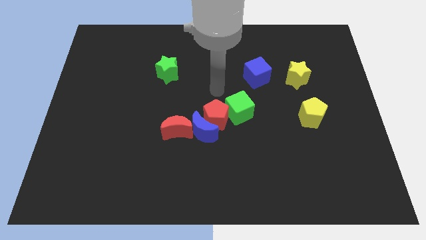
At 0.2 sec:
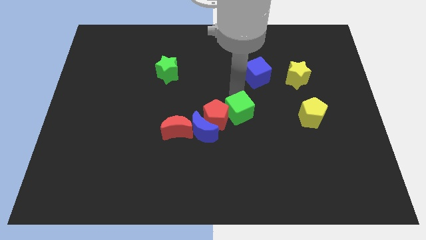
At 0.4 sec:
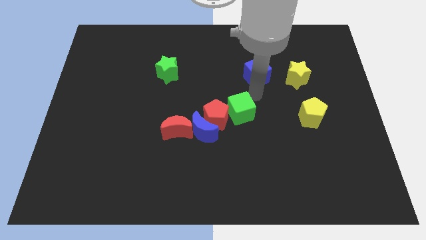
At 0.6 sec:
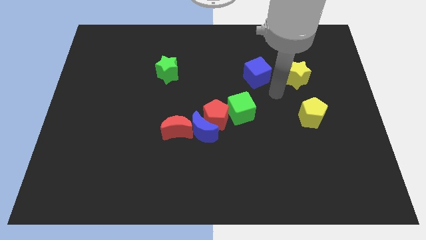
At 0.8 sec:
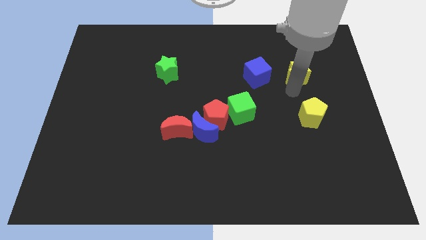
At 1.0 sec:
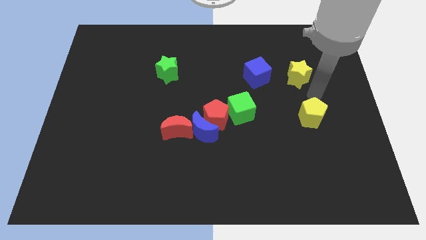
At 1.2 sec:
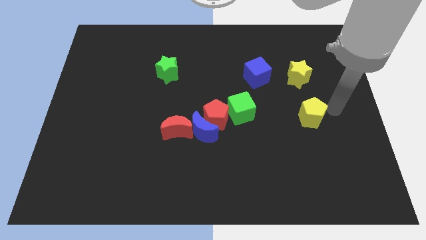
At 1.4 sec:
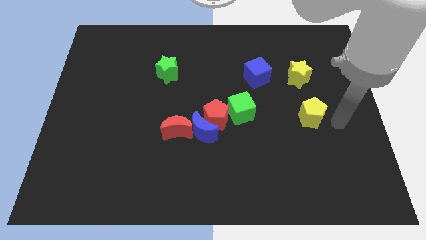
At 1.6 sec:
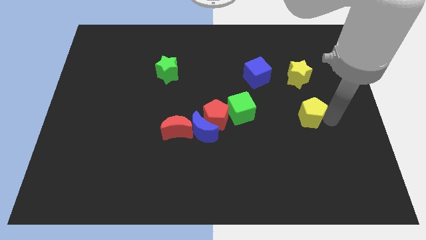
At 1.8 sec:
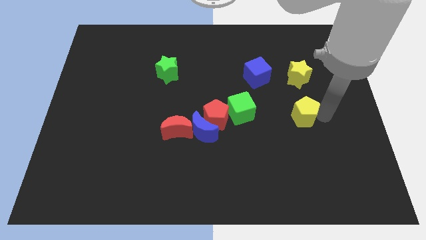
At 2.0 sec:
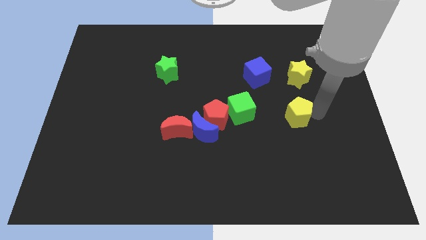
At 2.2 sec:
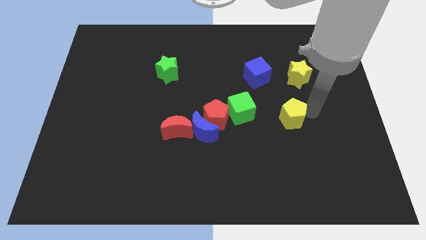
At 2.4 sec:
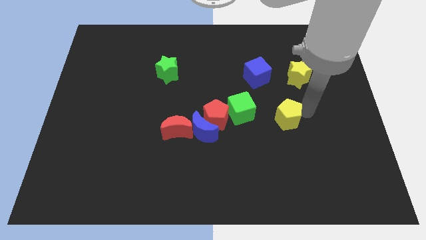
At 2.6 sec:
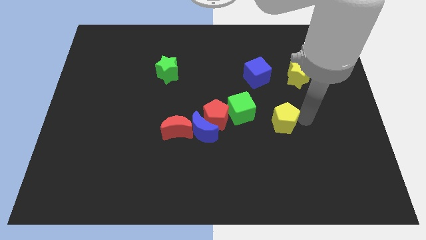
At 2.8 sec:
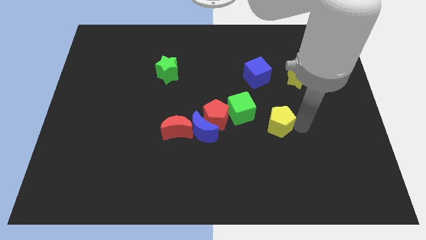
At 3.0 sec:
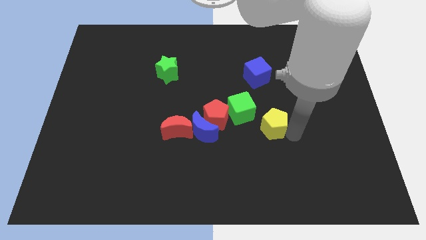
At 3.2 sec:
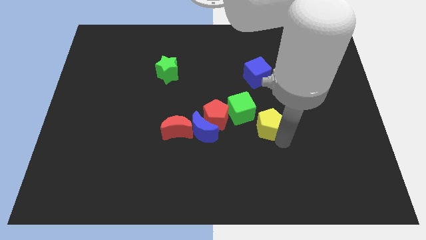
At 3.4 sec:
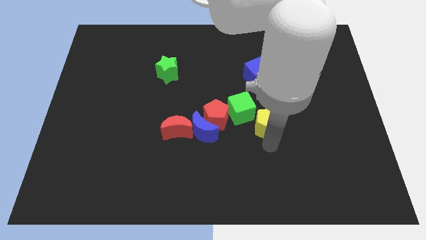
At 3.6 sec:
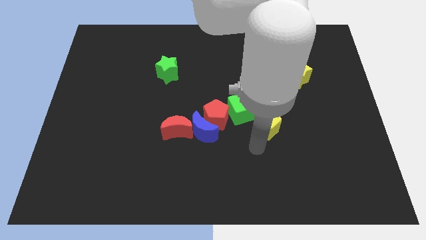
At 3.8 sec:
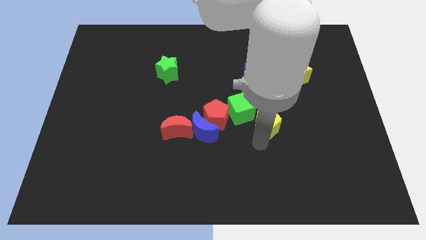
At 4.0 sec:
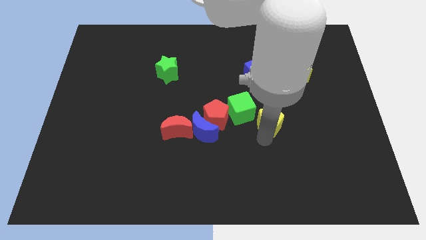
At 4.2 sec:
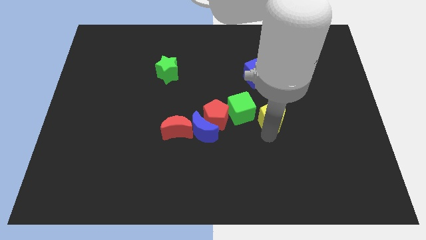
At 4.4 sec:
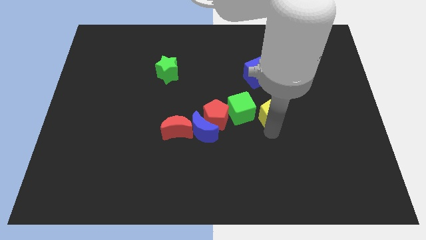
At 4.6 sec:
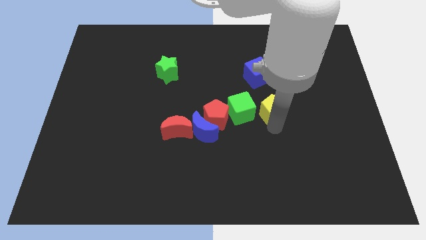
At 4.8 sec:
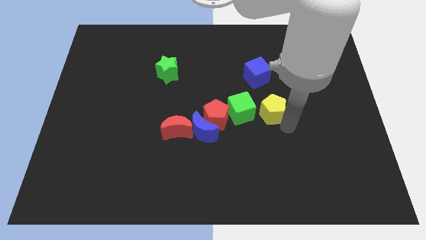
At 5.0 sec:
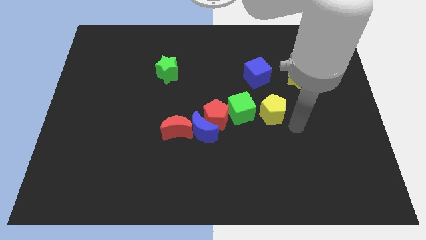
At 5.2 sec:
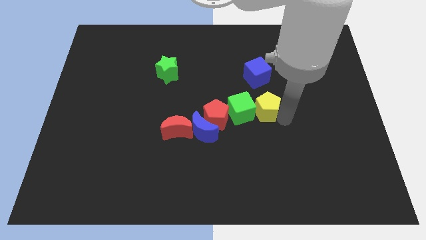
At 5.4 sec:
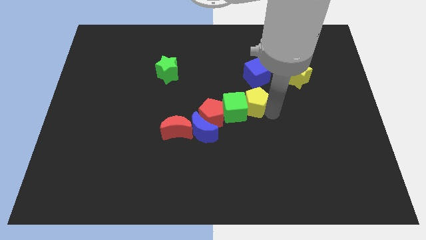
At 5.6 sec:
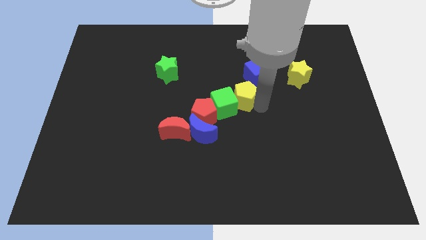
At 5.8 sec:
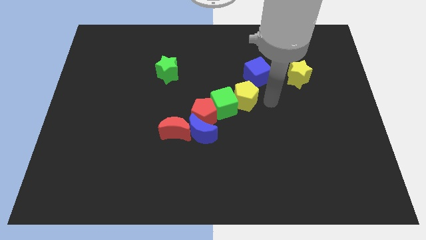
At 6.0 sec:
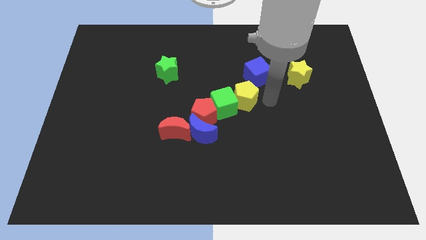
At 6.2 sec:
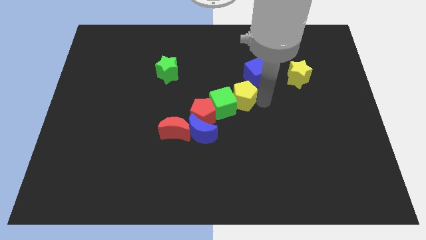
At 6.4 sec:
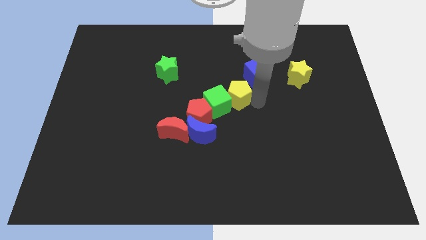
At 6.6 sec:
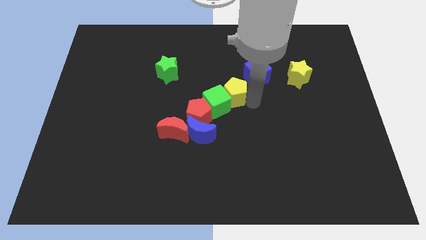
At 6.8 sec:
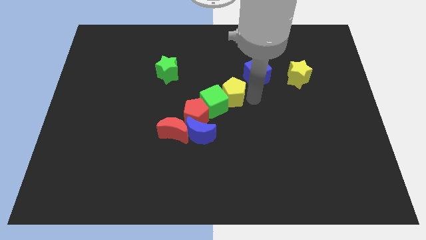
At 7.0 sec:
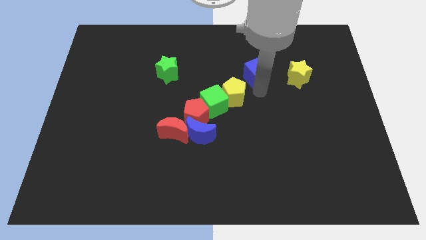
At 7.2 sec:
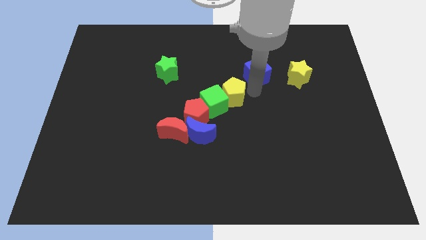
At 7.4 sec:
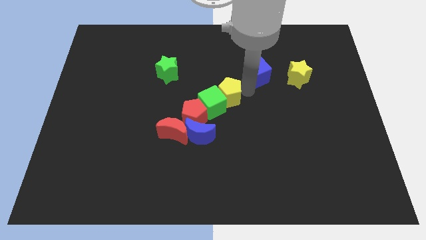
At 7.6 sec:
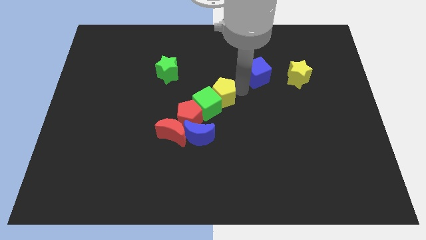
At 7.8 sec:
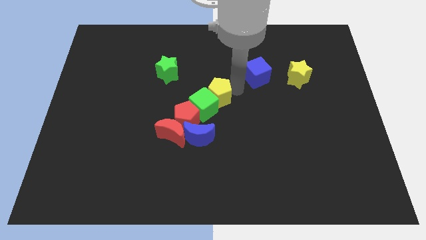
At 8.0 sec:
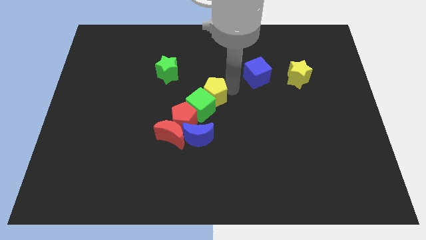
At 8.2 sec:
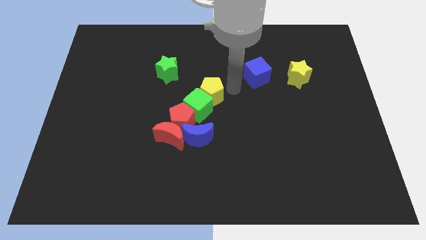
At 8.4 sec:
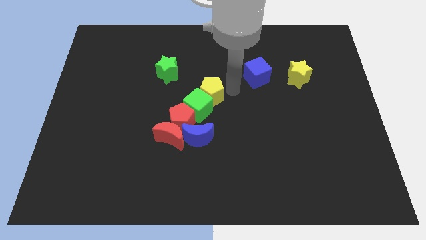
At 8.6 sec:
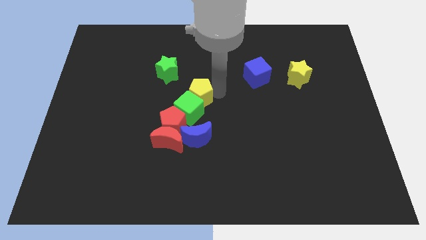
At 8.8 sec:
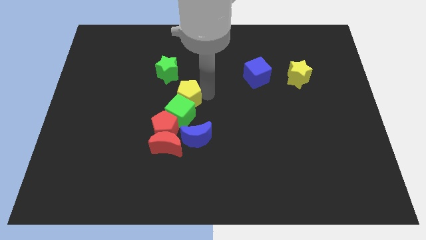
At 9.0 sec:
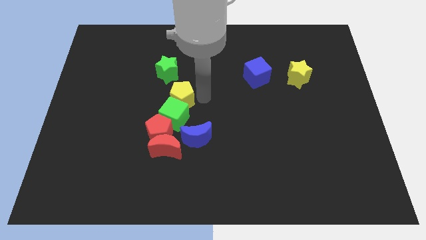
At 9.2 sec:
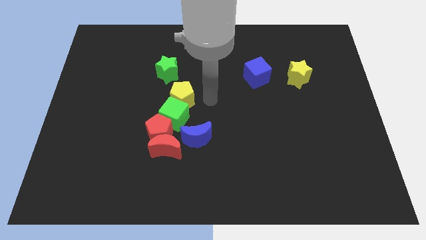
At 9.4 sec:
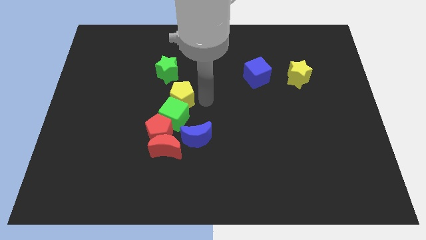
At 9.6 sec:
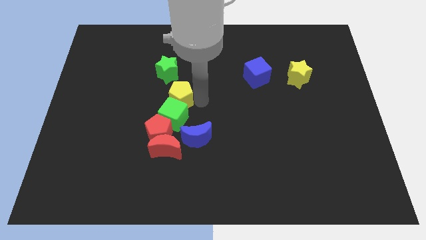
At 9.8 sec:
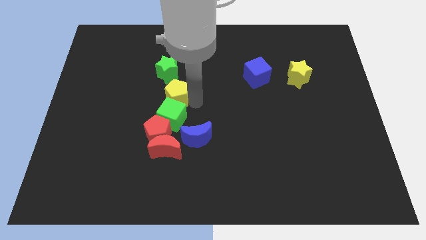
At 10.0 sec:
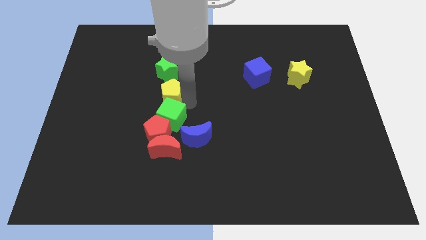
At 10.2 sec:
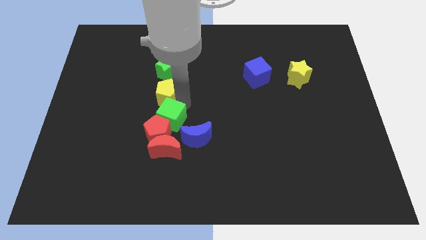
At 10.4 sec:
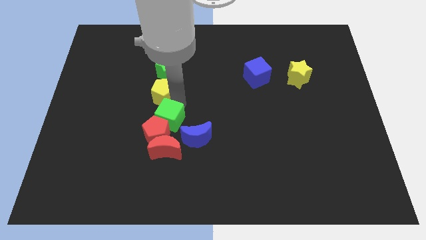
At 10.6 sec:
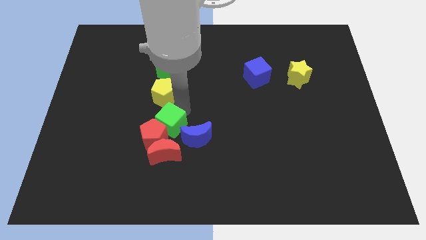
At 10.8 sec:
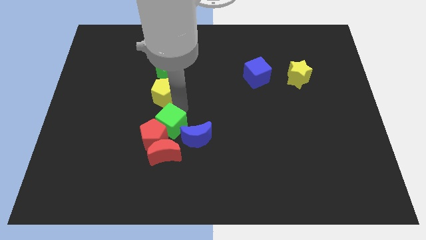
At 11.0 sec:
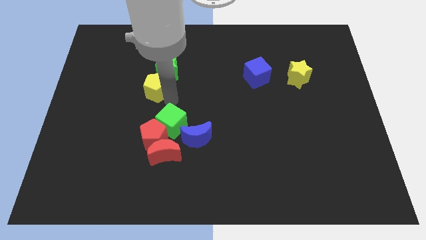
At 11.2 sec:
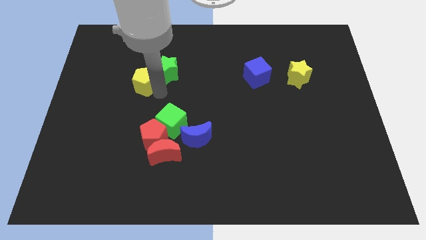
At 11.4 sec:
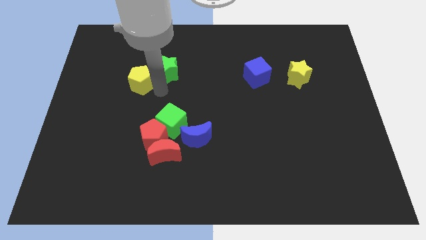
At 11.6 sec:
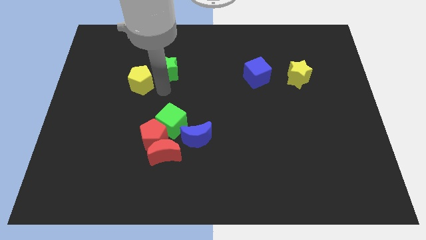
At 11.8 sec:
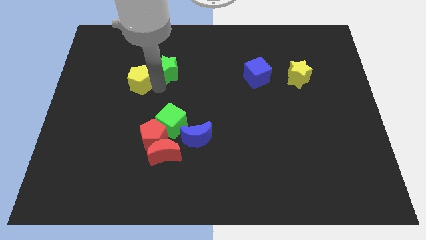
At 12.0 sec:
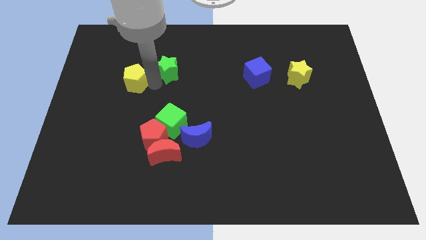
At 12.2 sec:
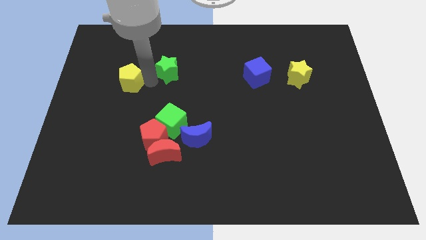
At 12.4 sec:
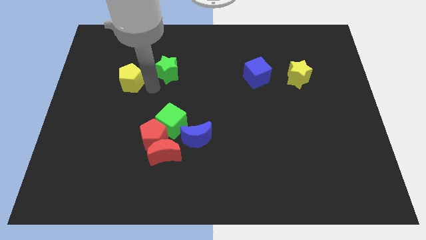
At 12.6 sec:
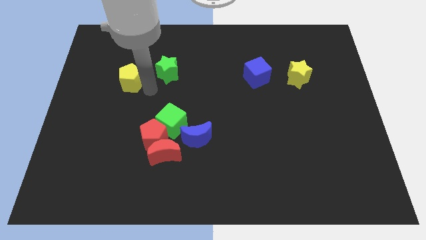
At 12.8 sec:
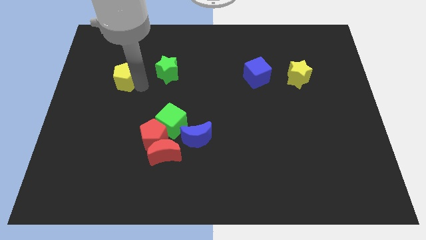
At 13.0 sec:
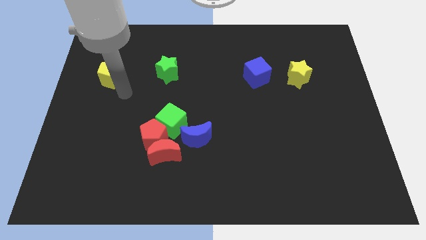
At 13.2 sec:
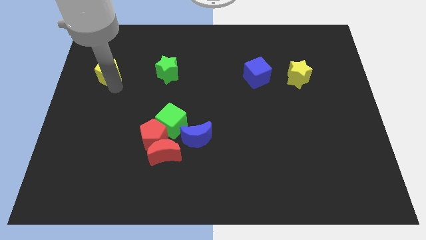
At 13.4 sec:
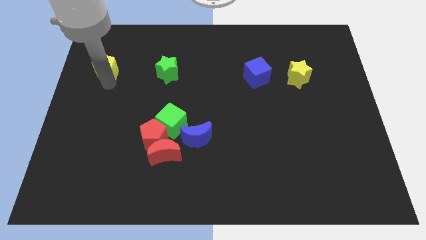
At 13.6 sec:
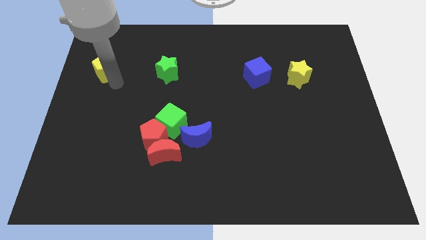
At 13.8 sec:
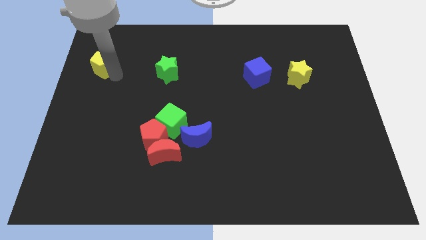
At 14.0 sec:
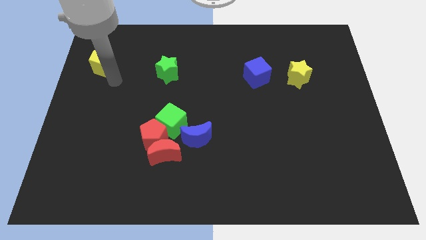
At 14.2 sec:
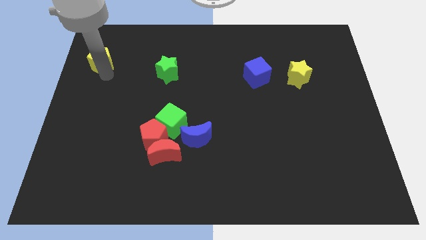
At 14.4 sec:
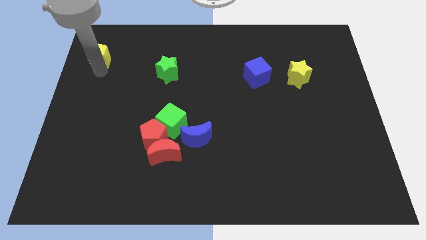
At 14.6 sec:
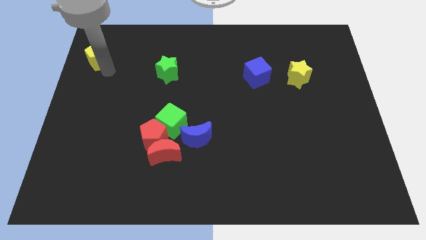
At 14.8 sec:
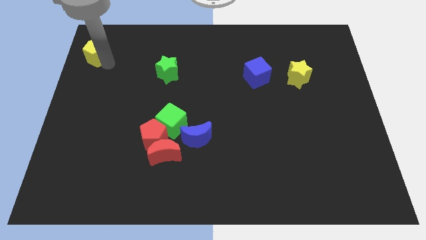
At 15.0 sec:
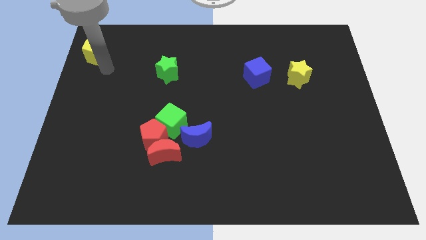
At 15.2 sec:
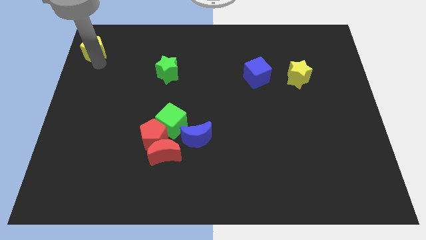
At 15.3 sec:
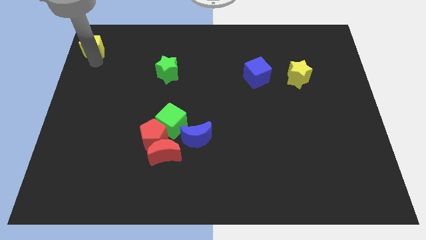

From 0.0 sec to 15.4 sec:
put the yellow pentagon to the top left corner
